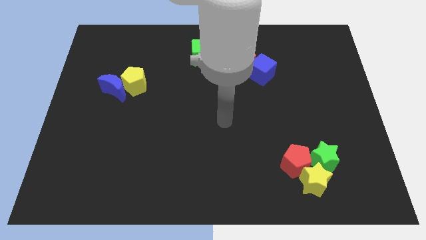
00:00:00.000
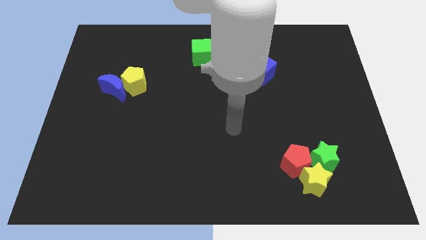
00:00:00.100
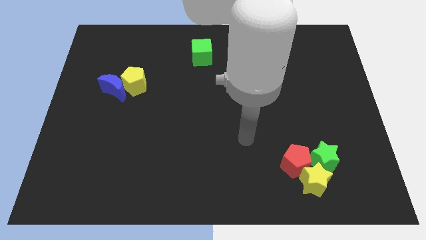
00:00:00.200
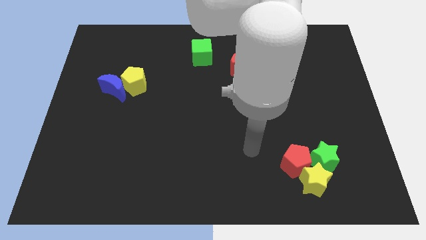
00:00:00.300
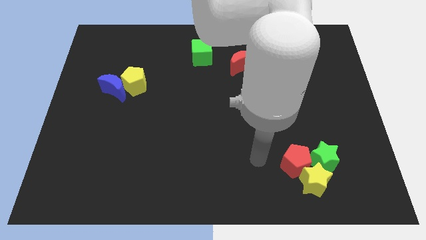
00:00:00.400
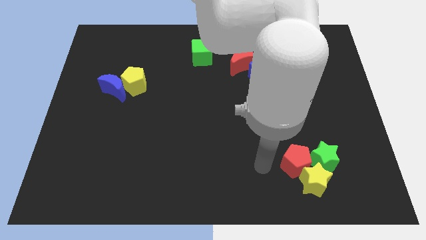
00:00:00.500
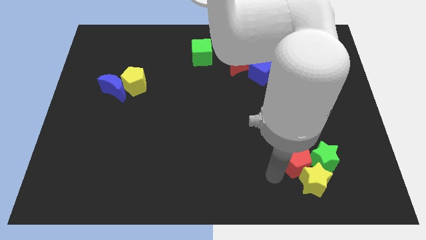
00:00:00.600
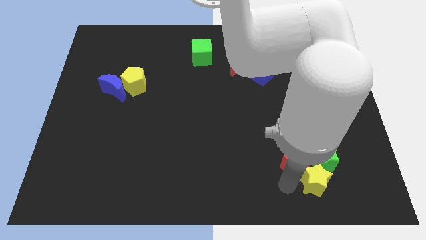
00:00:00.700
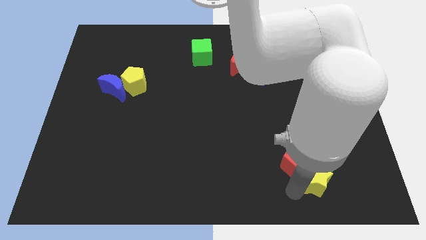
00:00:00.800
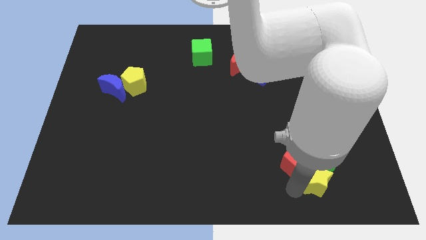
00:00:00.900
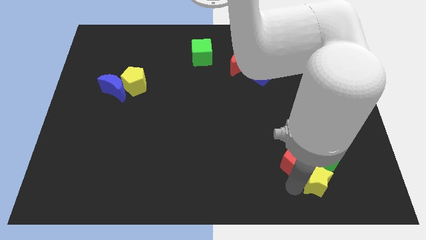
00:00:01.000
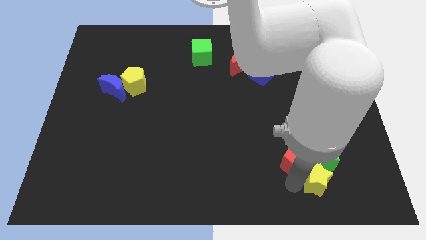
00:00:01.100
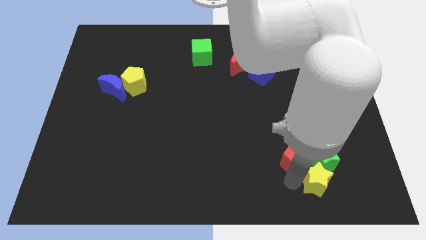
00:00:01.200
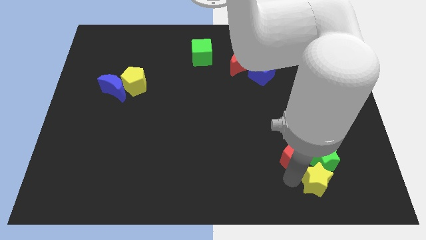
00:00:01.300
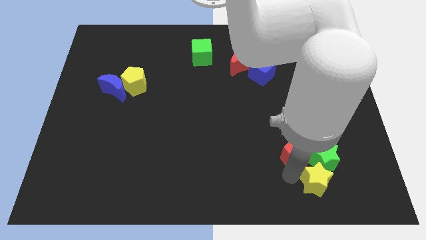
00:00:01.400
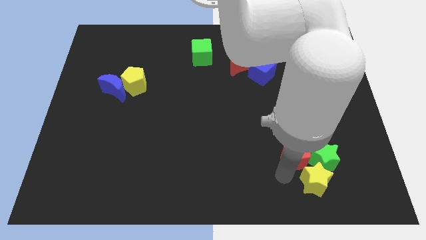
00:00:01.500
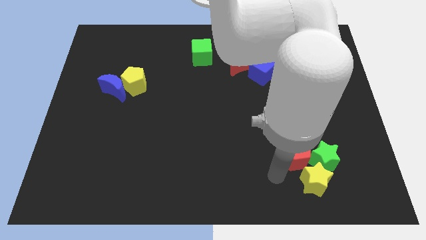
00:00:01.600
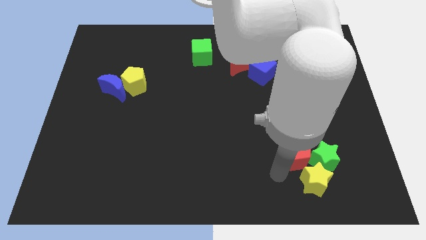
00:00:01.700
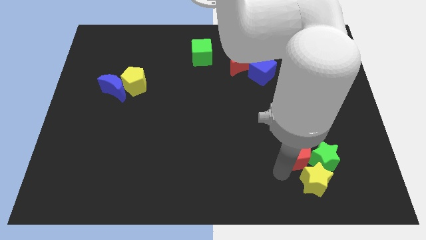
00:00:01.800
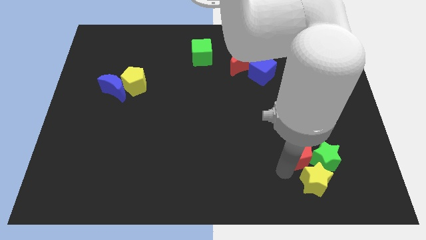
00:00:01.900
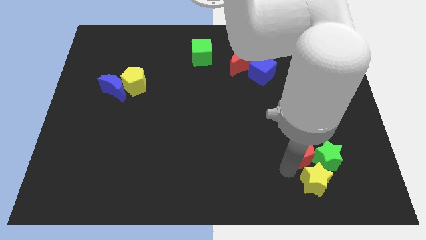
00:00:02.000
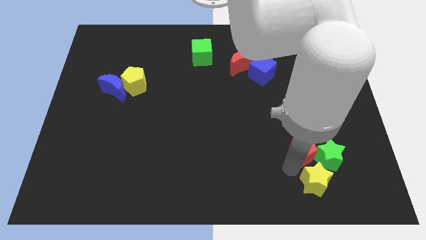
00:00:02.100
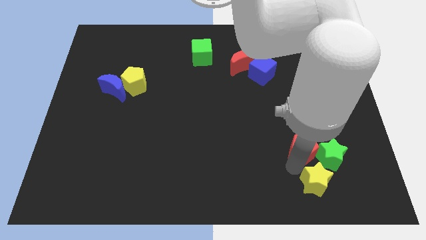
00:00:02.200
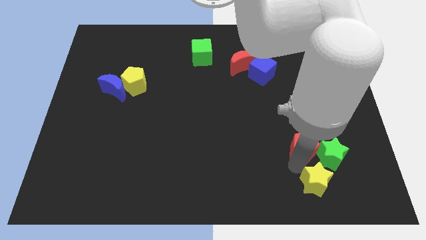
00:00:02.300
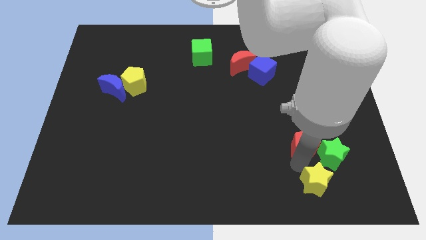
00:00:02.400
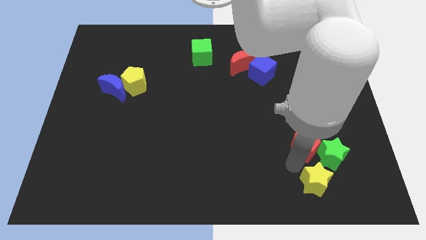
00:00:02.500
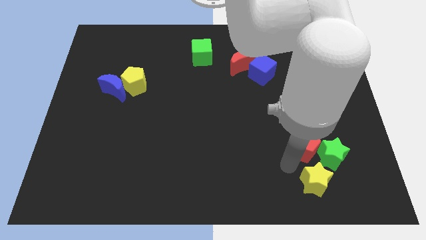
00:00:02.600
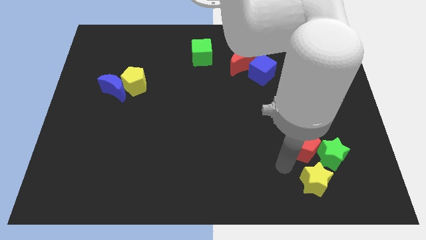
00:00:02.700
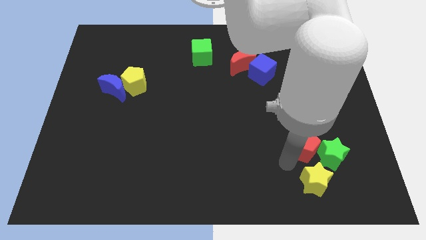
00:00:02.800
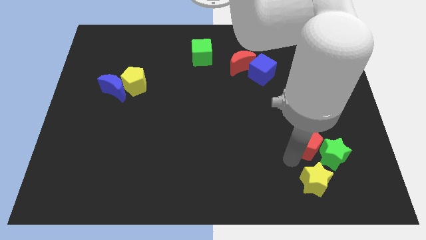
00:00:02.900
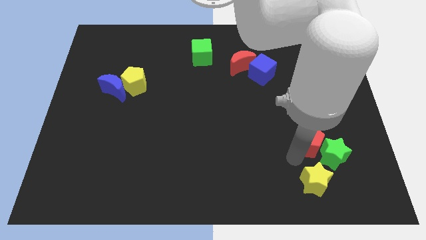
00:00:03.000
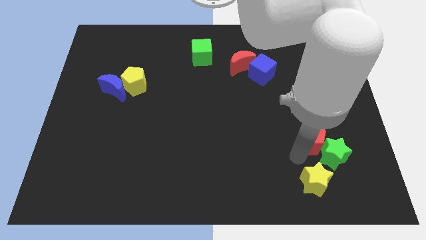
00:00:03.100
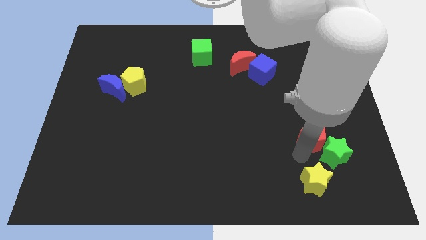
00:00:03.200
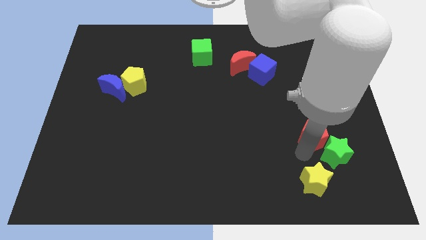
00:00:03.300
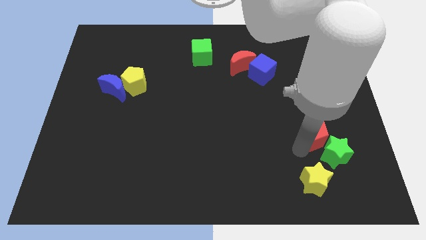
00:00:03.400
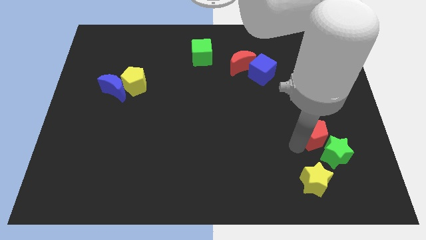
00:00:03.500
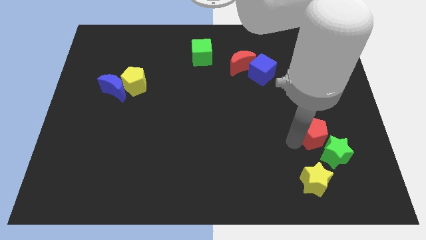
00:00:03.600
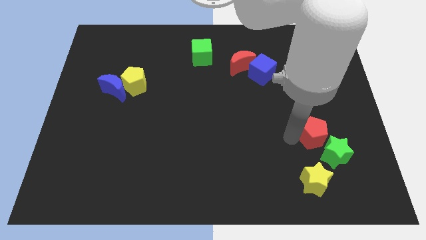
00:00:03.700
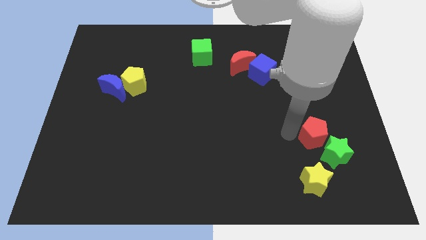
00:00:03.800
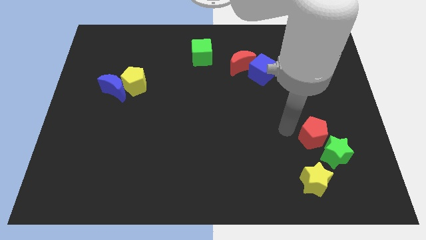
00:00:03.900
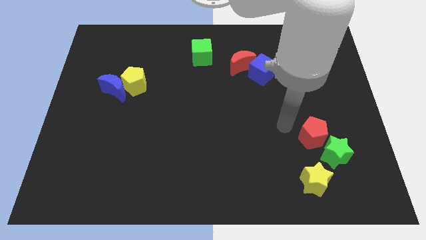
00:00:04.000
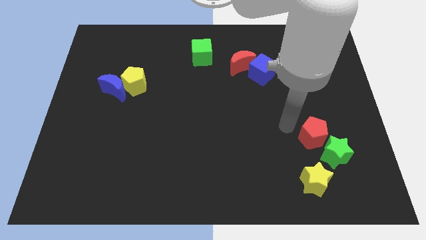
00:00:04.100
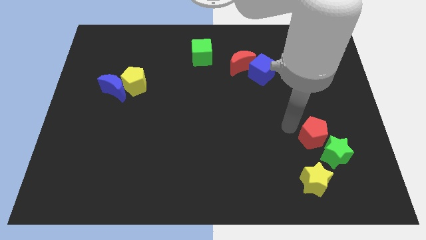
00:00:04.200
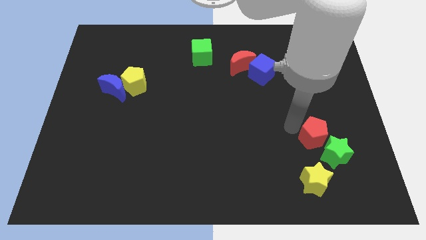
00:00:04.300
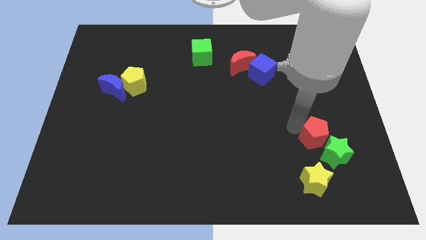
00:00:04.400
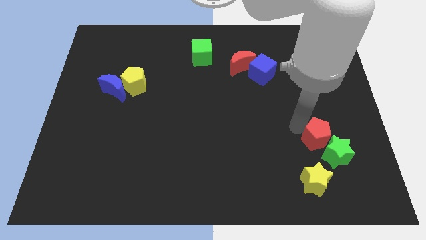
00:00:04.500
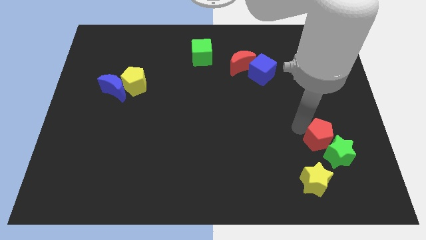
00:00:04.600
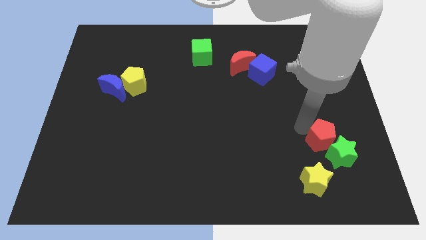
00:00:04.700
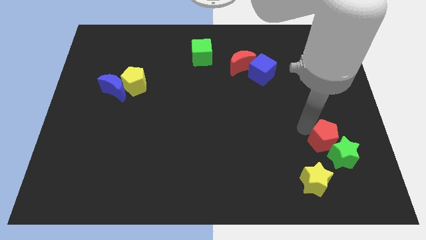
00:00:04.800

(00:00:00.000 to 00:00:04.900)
push the red pentagon to the top right side of the yellow star

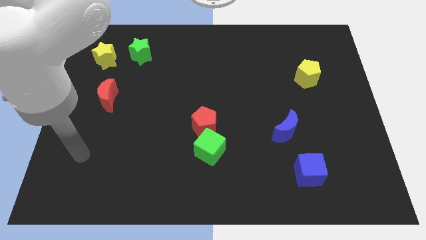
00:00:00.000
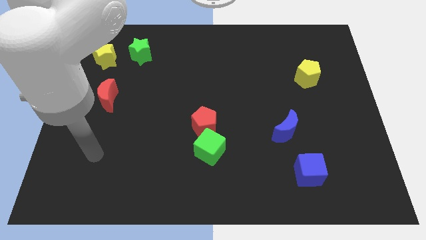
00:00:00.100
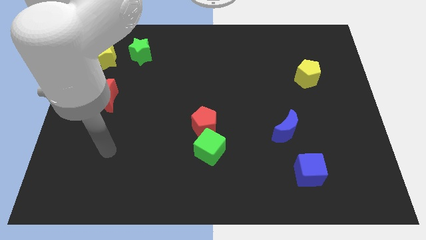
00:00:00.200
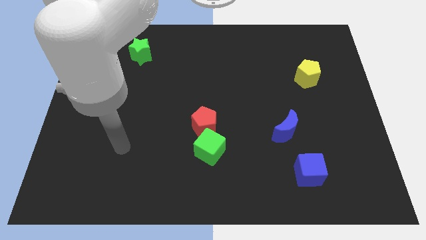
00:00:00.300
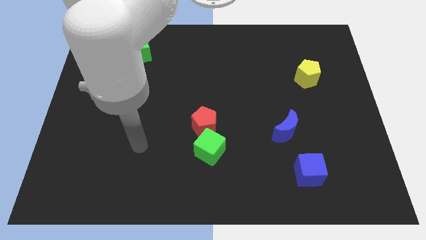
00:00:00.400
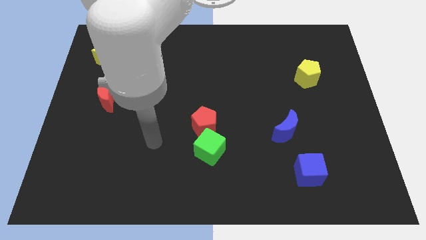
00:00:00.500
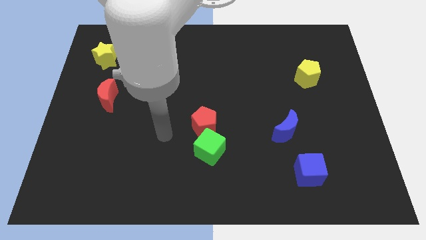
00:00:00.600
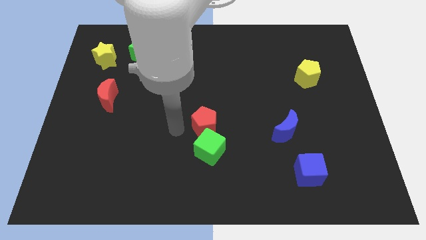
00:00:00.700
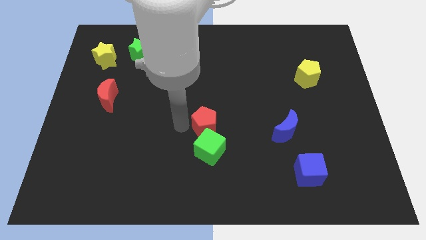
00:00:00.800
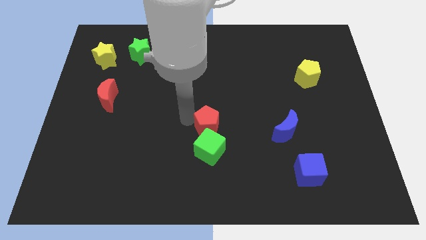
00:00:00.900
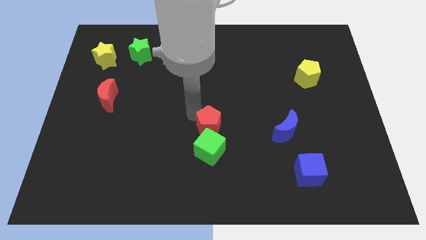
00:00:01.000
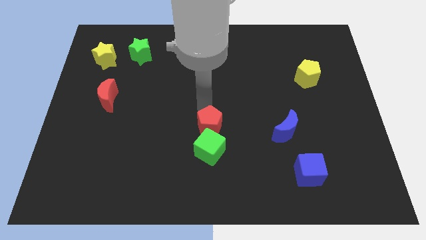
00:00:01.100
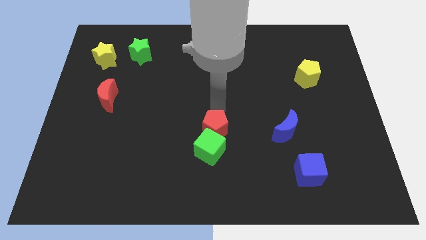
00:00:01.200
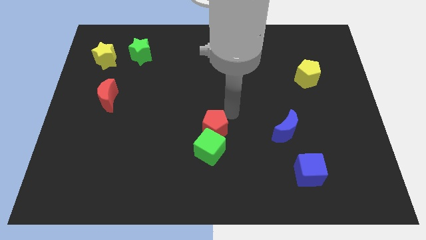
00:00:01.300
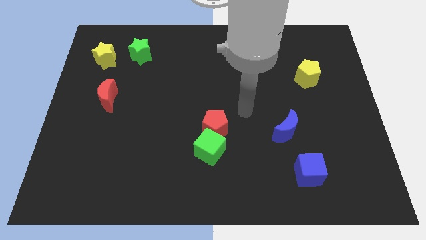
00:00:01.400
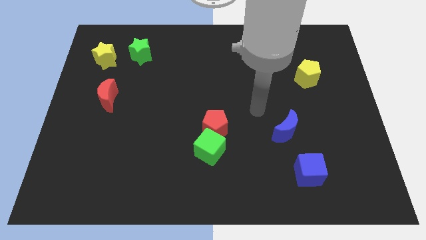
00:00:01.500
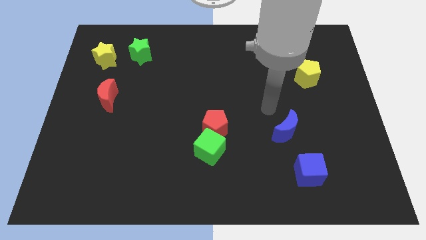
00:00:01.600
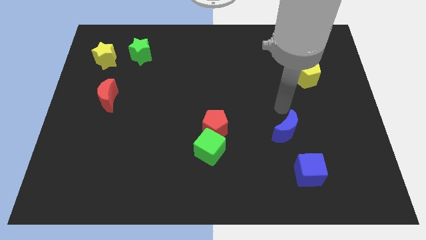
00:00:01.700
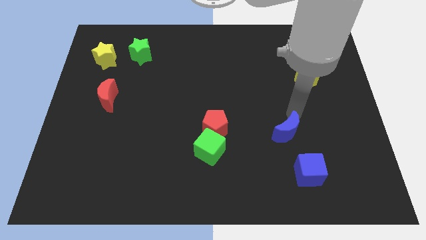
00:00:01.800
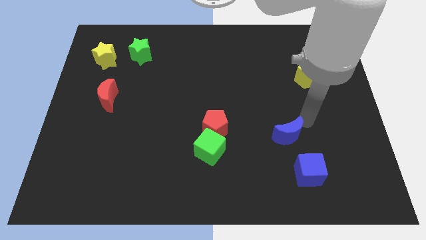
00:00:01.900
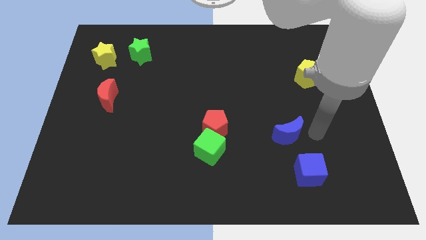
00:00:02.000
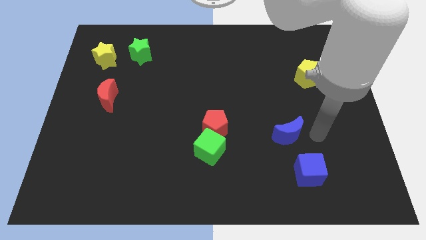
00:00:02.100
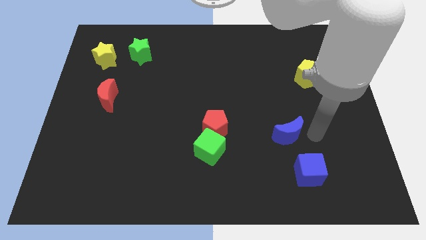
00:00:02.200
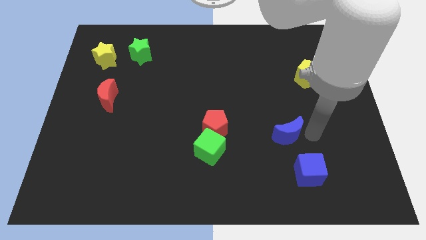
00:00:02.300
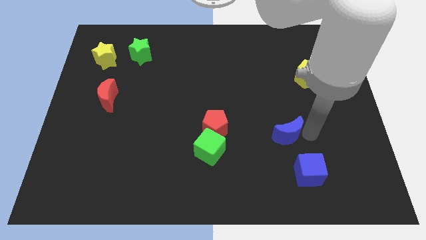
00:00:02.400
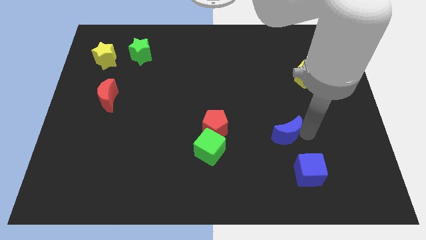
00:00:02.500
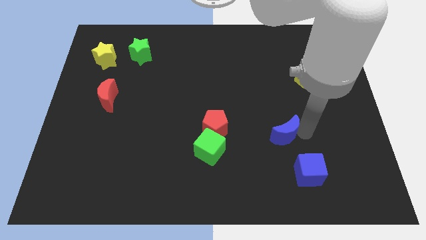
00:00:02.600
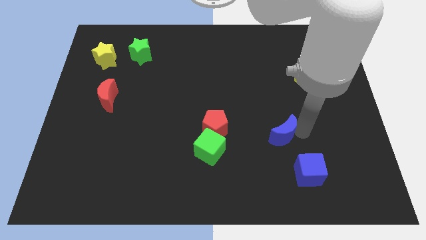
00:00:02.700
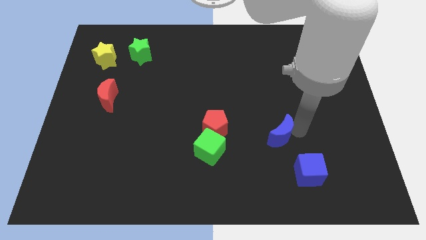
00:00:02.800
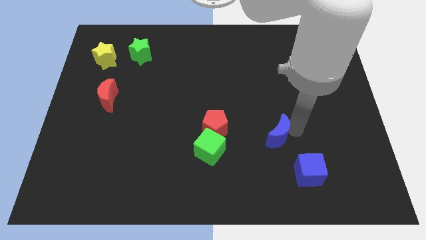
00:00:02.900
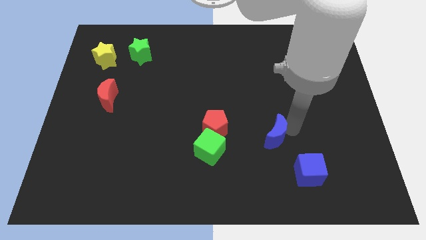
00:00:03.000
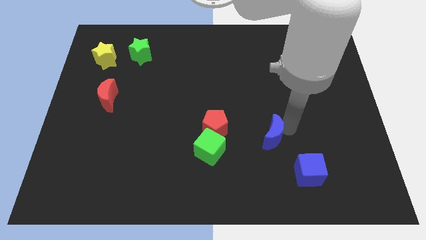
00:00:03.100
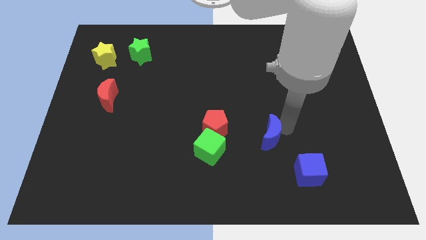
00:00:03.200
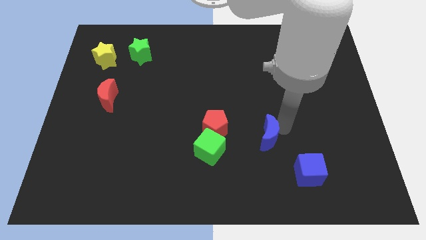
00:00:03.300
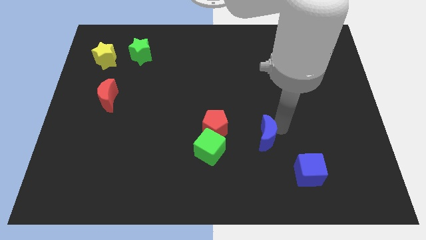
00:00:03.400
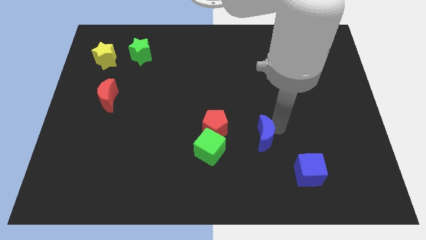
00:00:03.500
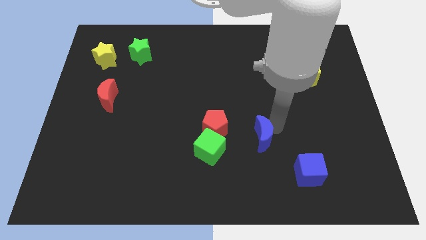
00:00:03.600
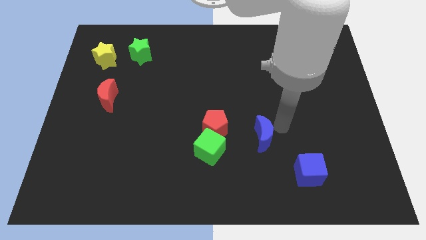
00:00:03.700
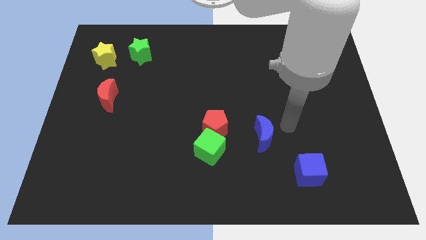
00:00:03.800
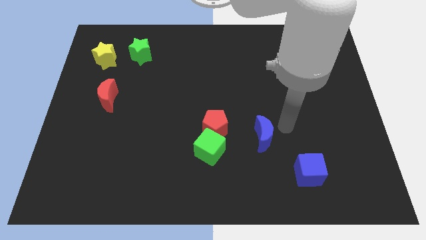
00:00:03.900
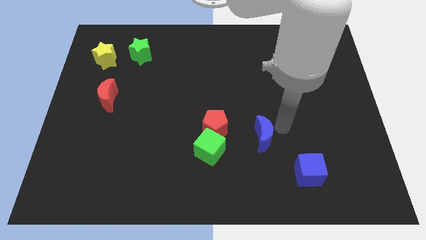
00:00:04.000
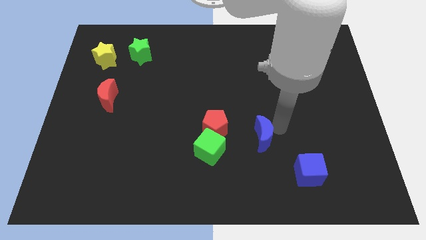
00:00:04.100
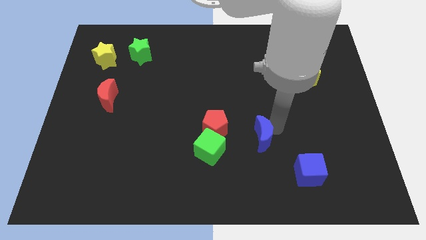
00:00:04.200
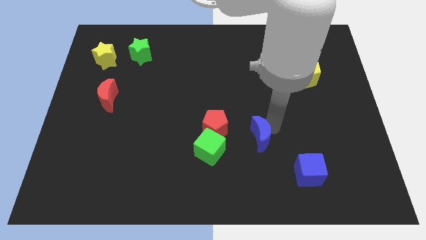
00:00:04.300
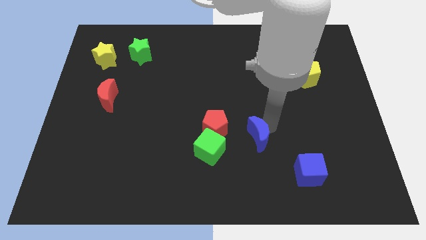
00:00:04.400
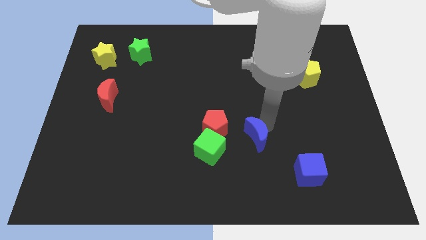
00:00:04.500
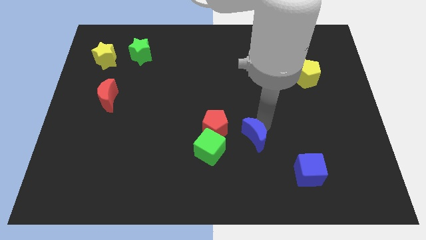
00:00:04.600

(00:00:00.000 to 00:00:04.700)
move the blue moon to the bottom right of the red pentagon
